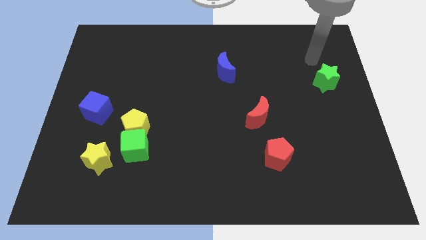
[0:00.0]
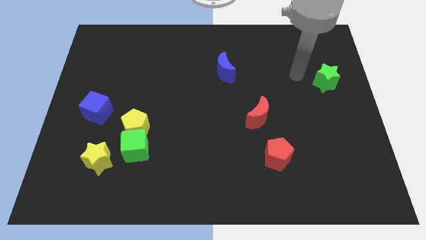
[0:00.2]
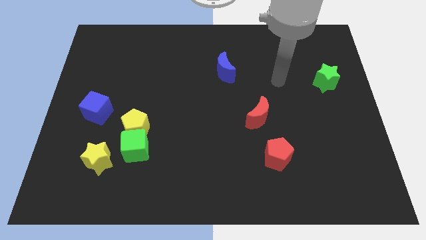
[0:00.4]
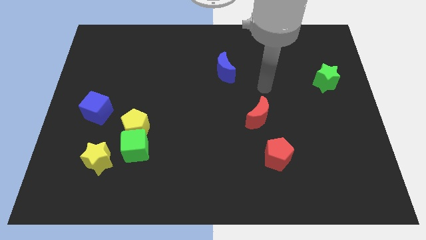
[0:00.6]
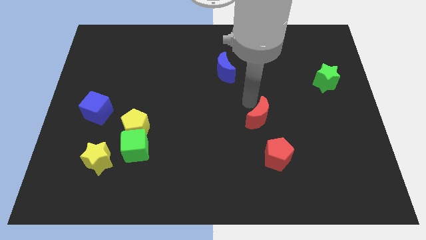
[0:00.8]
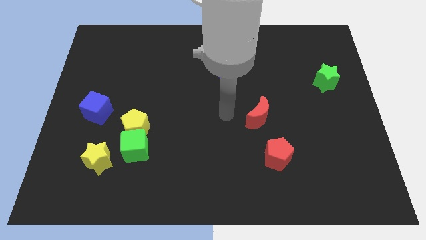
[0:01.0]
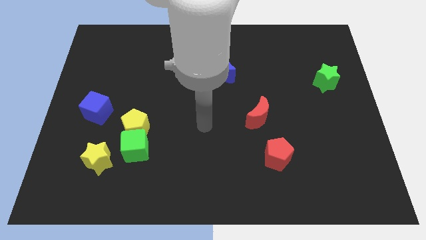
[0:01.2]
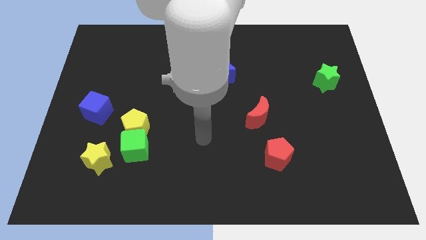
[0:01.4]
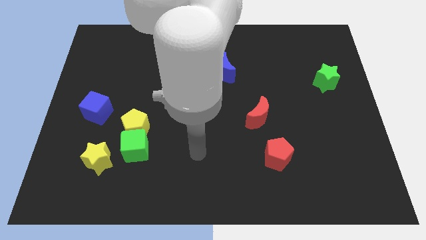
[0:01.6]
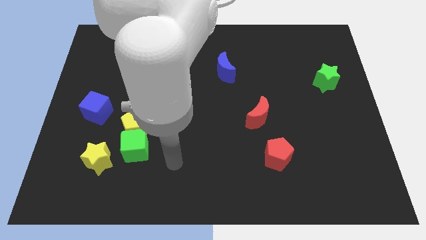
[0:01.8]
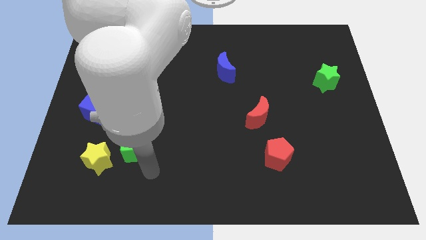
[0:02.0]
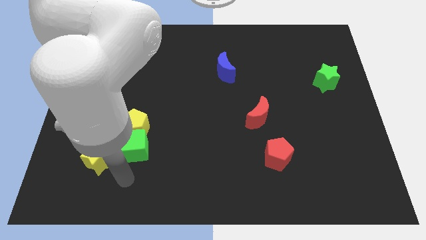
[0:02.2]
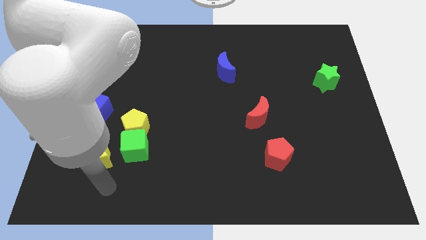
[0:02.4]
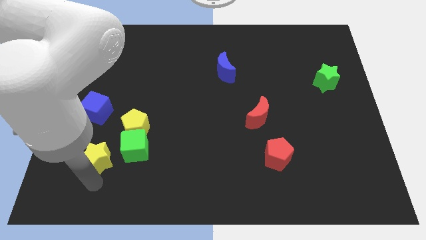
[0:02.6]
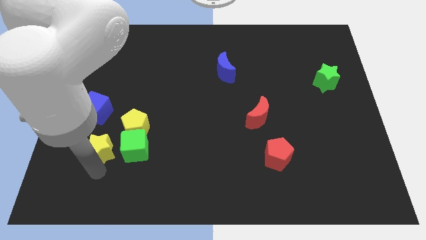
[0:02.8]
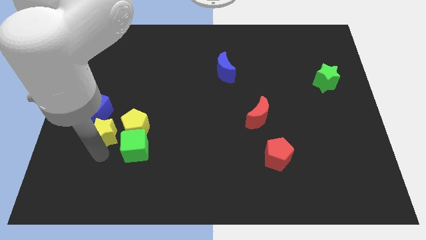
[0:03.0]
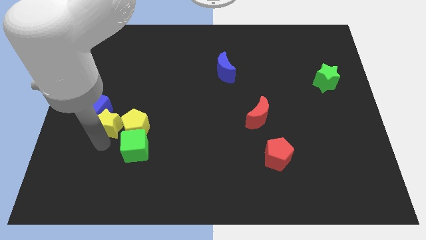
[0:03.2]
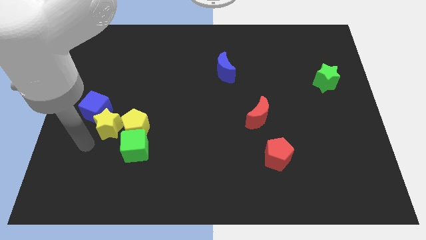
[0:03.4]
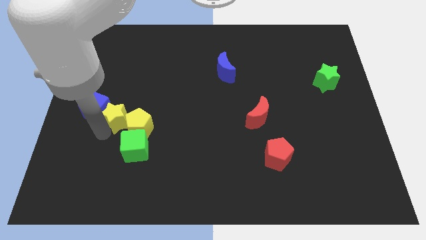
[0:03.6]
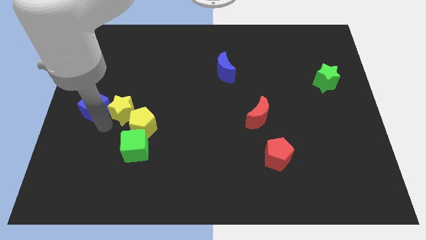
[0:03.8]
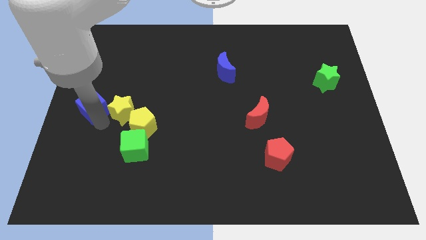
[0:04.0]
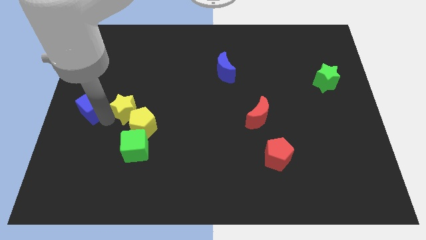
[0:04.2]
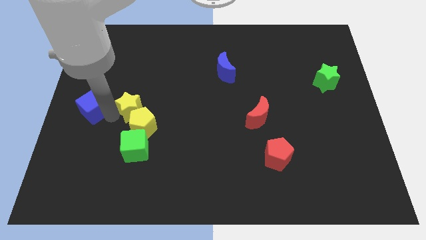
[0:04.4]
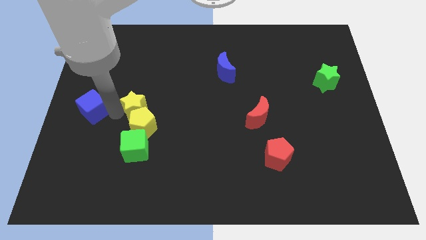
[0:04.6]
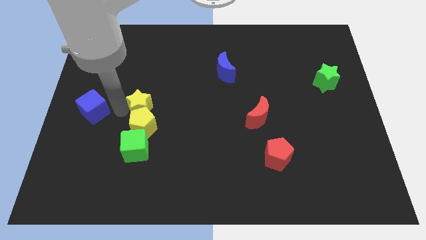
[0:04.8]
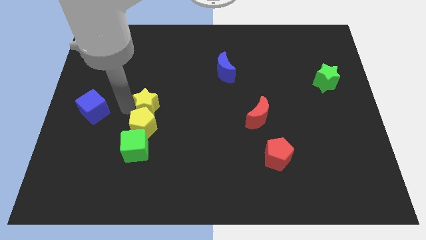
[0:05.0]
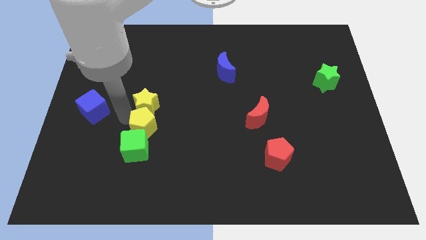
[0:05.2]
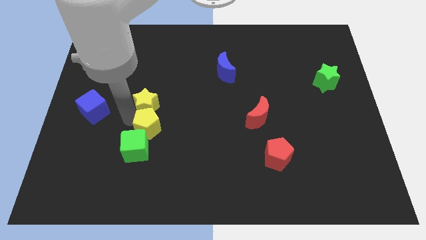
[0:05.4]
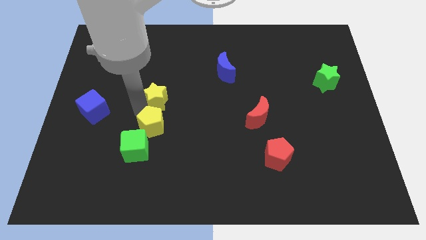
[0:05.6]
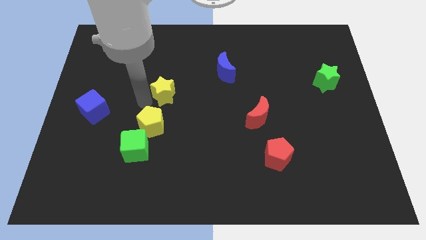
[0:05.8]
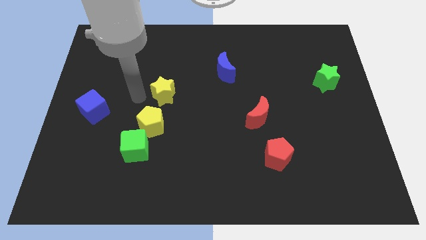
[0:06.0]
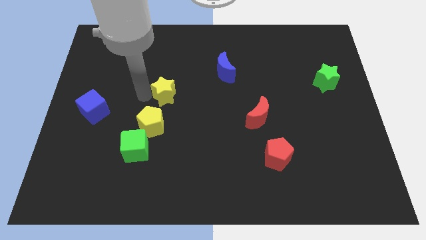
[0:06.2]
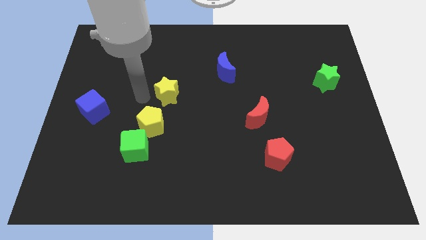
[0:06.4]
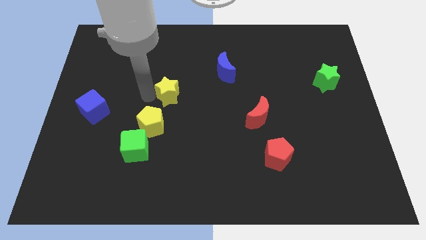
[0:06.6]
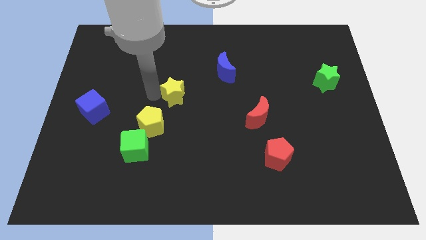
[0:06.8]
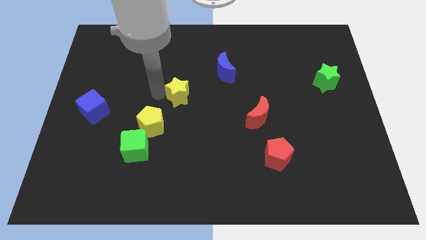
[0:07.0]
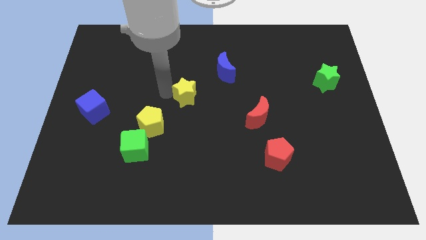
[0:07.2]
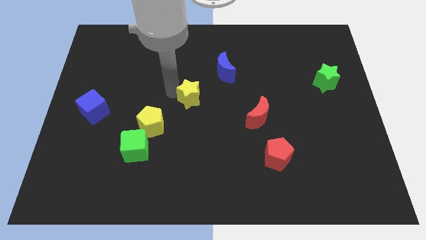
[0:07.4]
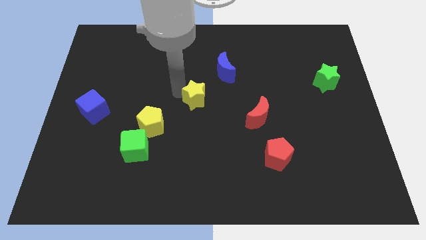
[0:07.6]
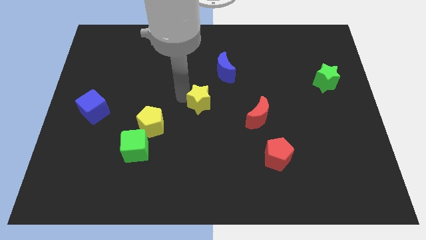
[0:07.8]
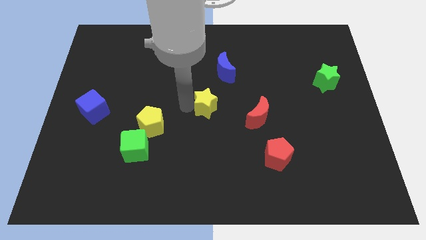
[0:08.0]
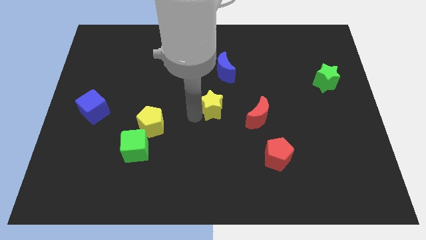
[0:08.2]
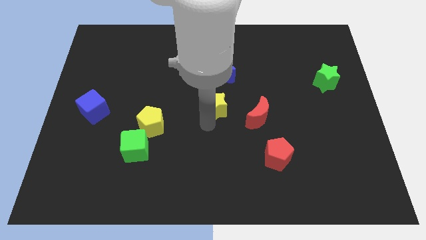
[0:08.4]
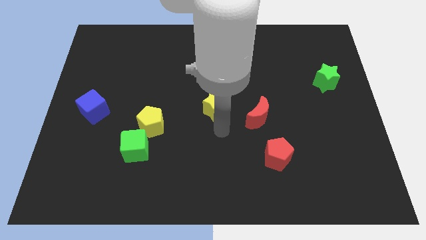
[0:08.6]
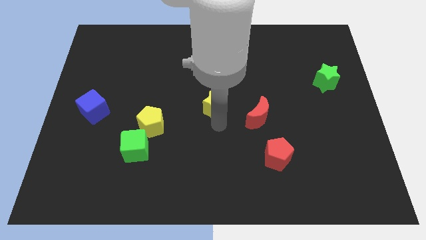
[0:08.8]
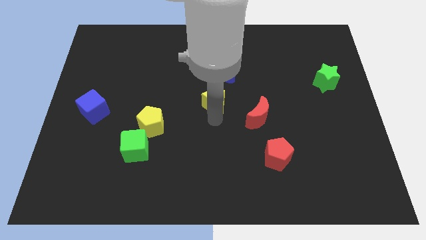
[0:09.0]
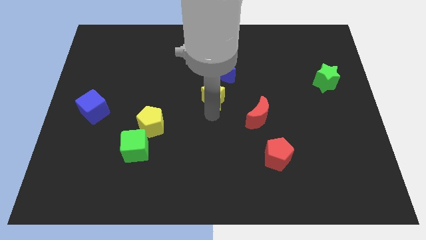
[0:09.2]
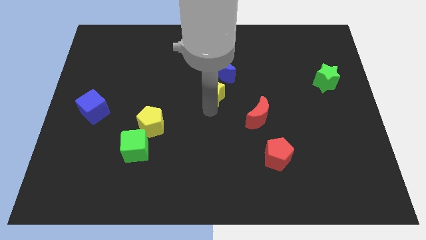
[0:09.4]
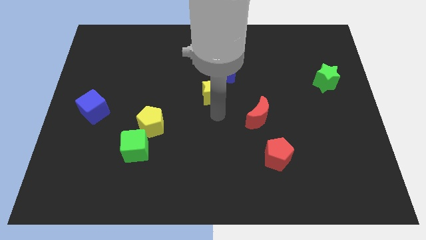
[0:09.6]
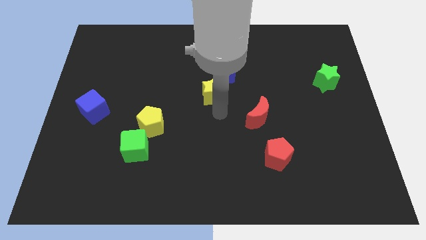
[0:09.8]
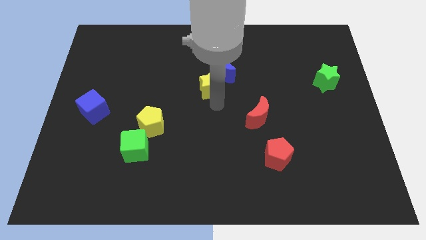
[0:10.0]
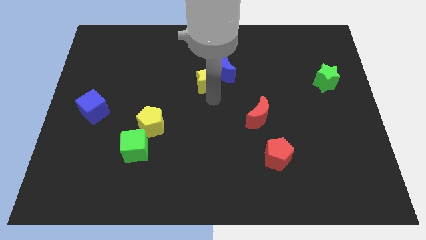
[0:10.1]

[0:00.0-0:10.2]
push the yellow star towards the blue moon

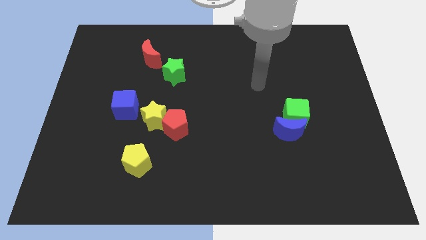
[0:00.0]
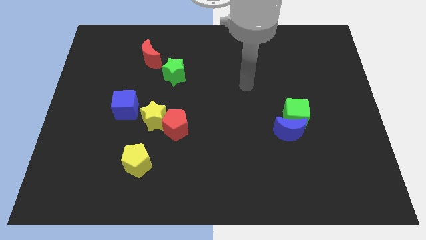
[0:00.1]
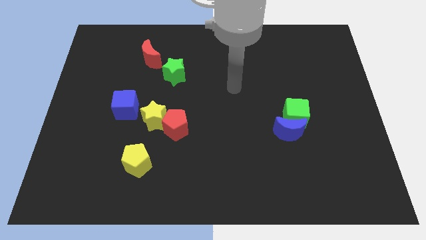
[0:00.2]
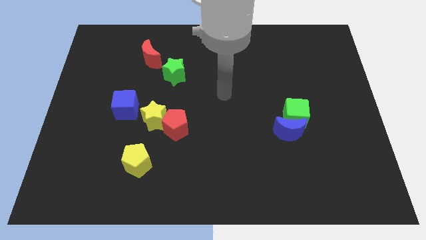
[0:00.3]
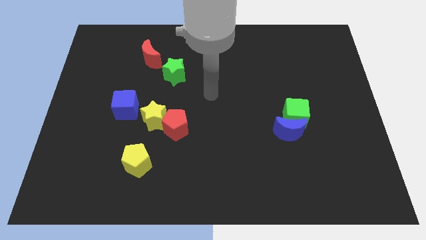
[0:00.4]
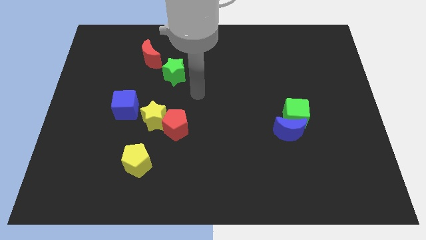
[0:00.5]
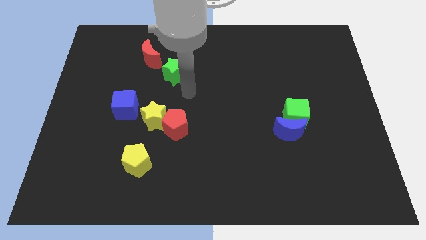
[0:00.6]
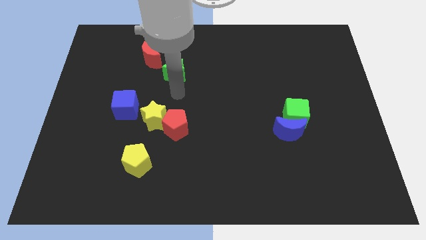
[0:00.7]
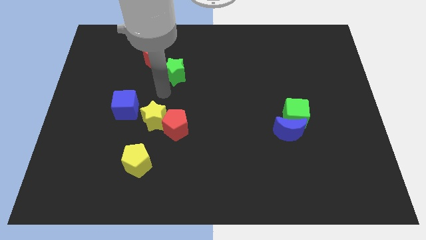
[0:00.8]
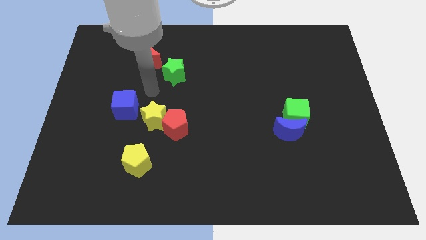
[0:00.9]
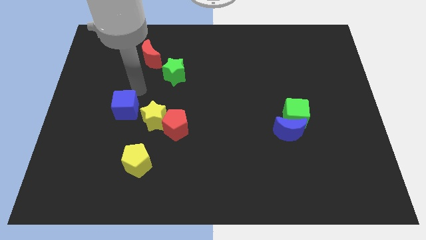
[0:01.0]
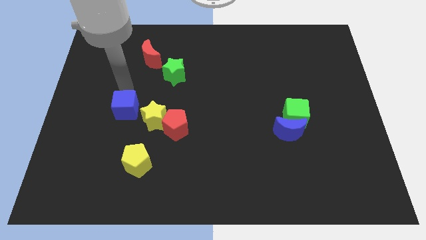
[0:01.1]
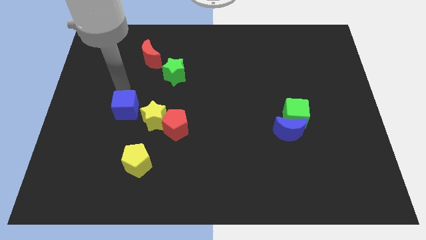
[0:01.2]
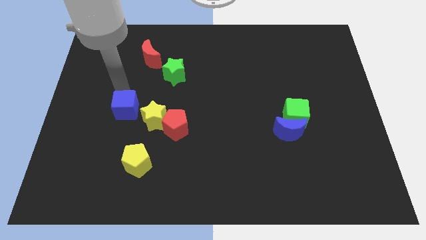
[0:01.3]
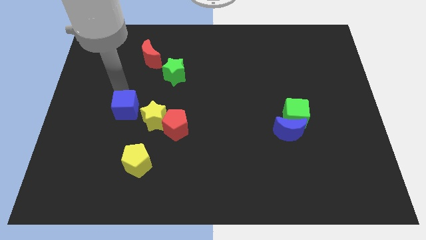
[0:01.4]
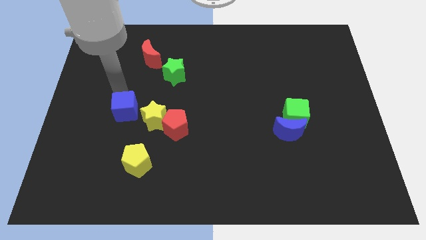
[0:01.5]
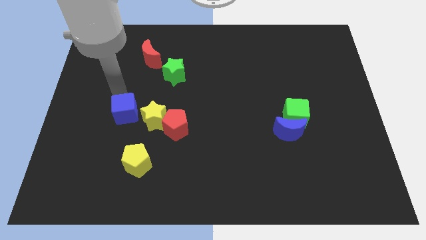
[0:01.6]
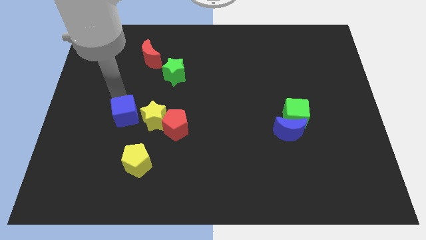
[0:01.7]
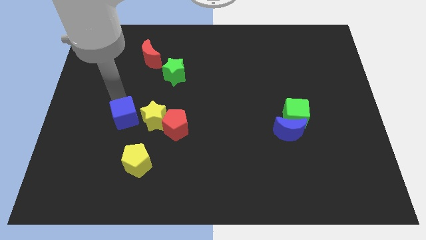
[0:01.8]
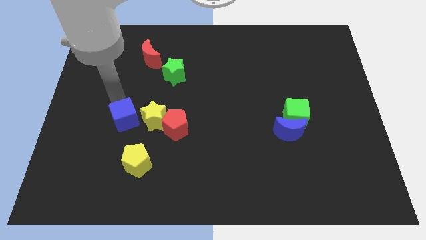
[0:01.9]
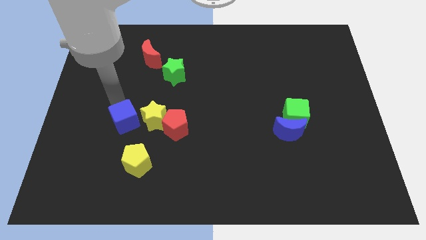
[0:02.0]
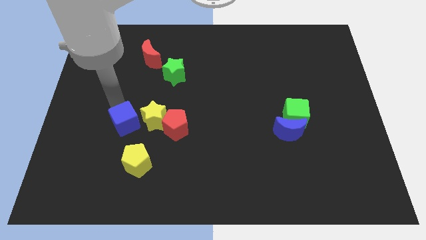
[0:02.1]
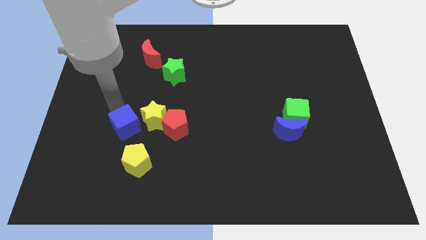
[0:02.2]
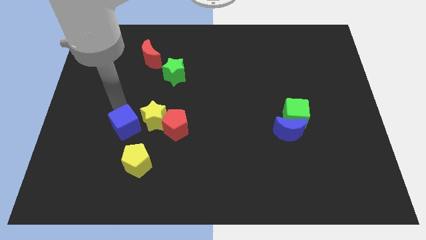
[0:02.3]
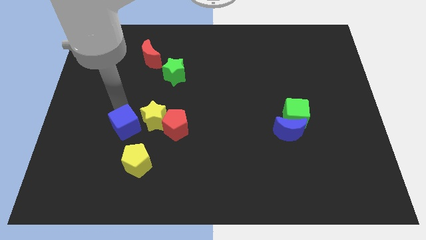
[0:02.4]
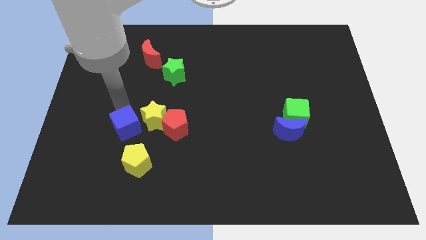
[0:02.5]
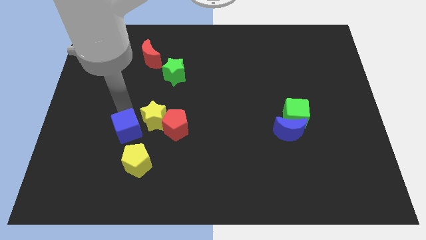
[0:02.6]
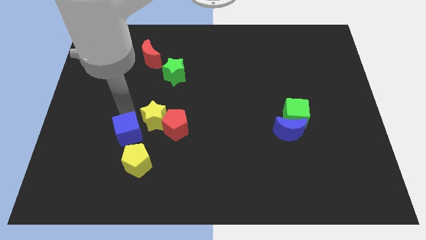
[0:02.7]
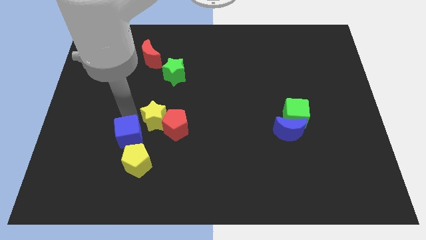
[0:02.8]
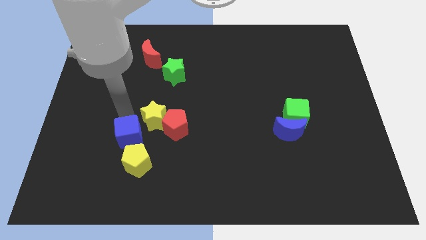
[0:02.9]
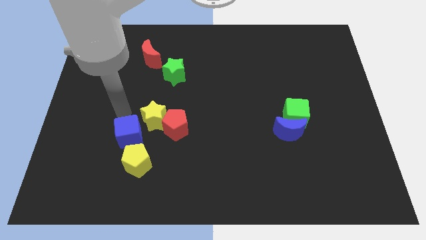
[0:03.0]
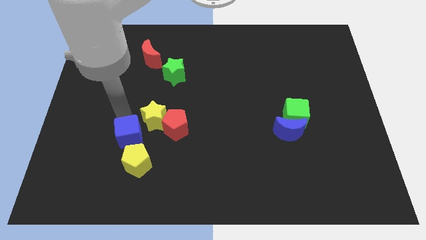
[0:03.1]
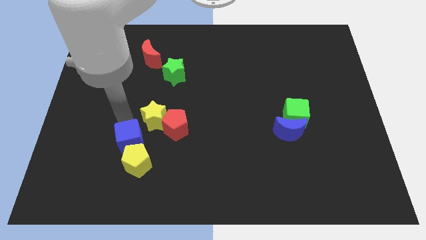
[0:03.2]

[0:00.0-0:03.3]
move the blue cube to the yellow pentagon
